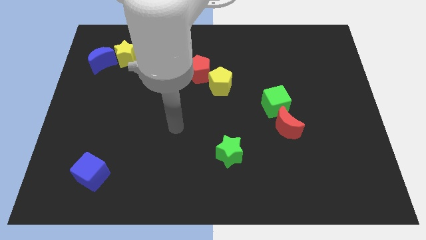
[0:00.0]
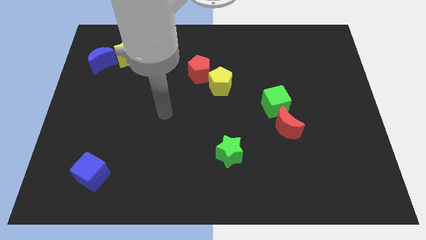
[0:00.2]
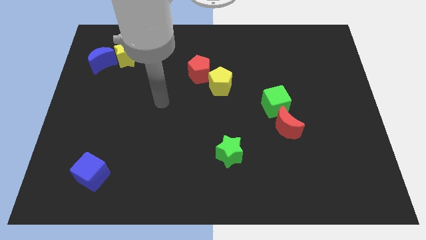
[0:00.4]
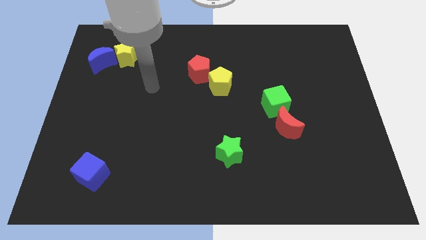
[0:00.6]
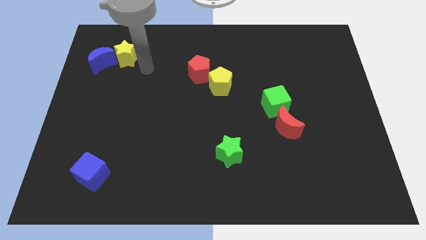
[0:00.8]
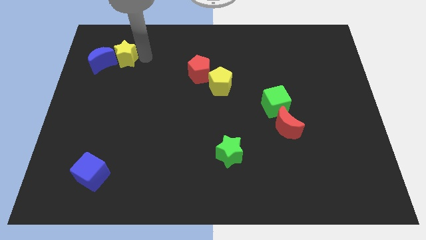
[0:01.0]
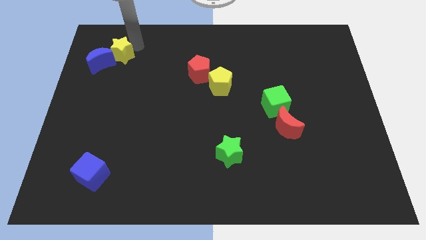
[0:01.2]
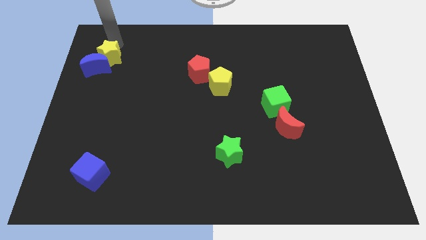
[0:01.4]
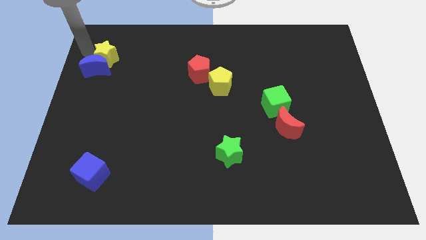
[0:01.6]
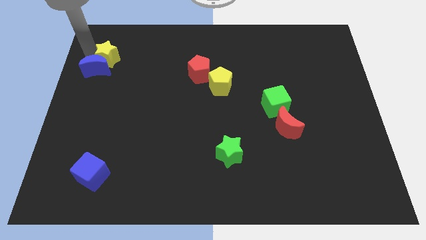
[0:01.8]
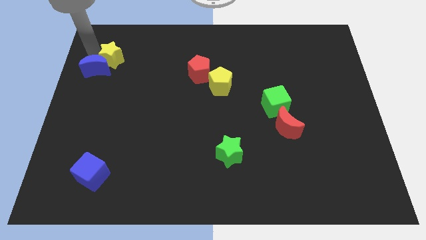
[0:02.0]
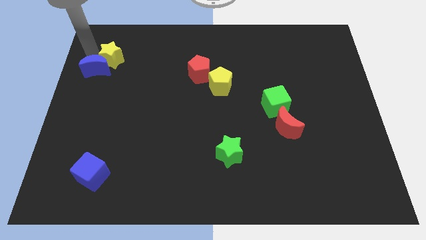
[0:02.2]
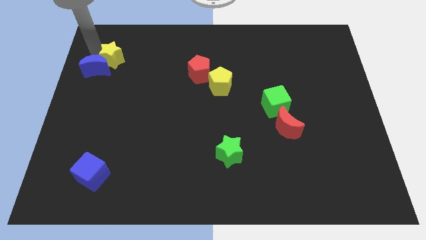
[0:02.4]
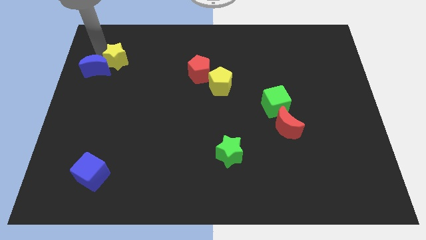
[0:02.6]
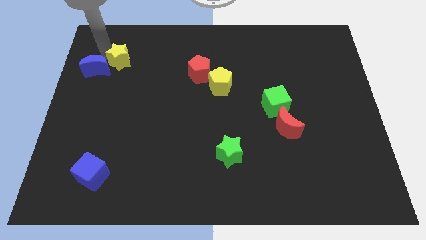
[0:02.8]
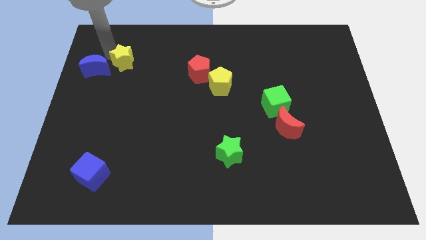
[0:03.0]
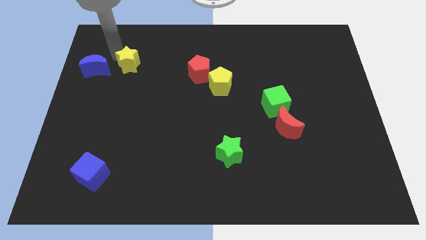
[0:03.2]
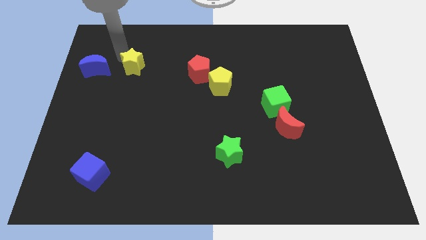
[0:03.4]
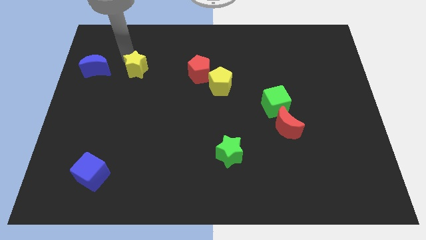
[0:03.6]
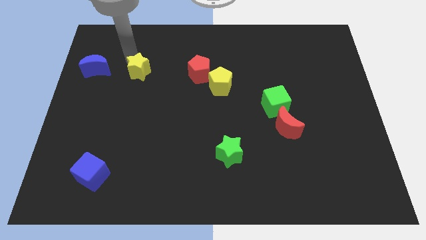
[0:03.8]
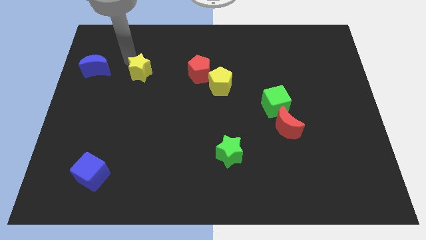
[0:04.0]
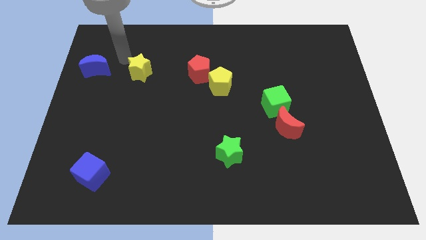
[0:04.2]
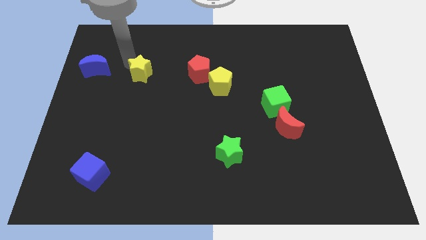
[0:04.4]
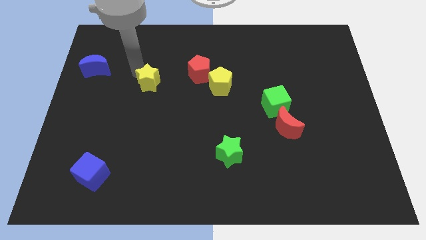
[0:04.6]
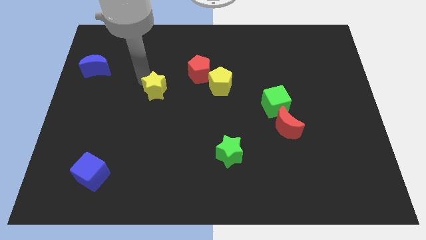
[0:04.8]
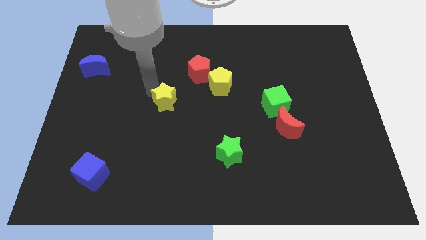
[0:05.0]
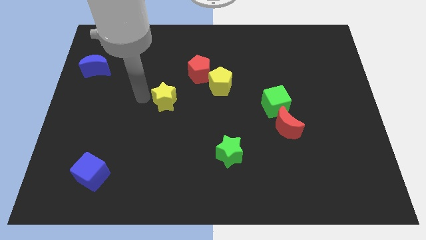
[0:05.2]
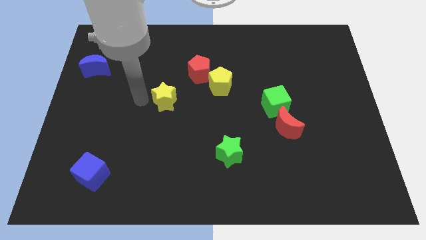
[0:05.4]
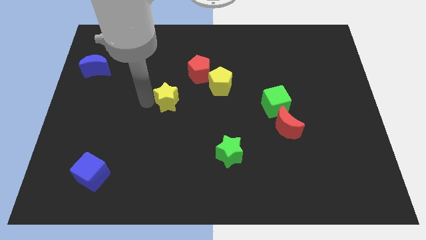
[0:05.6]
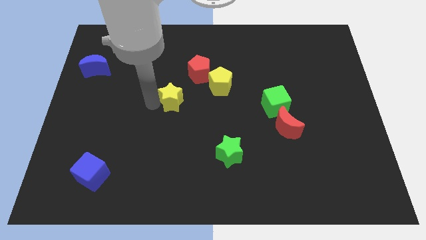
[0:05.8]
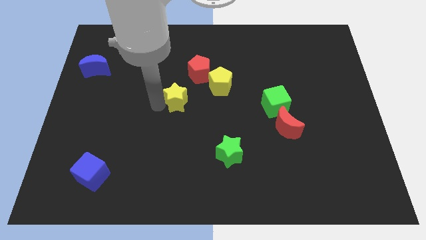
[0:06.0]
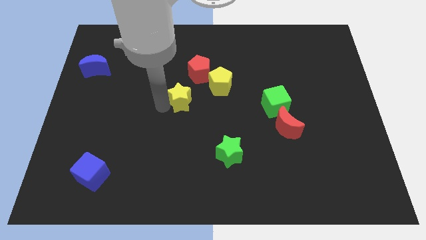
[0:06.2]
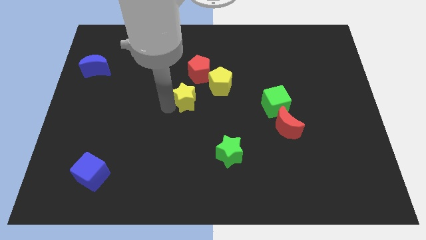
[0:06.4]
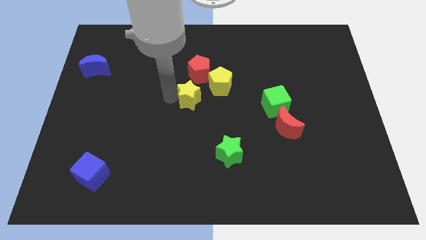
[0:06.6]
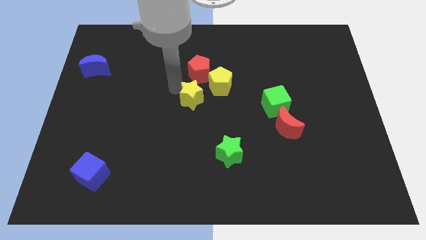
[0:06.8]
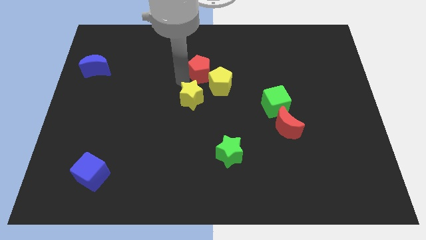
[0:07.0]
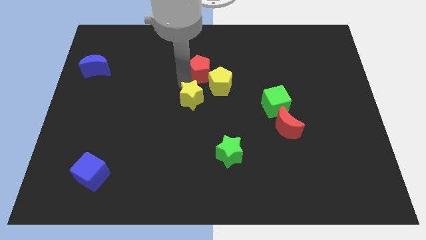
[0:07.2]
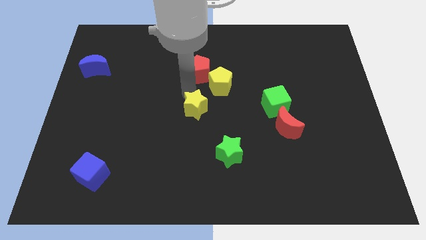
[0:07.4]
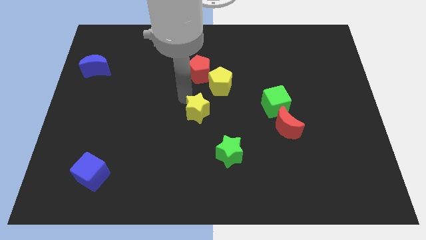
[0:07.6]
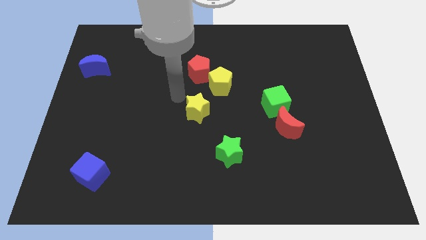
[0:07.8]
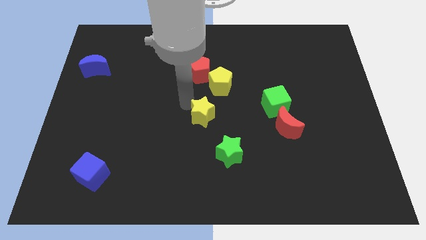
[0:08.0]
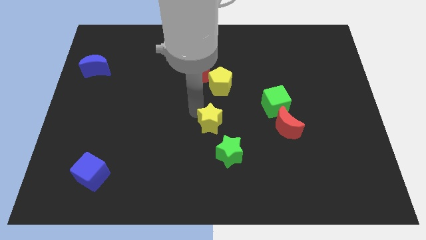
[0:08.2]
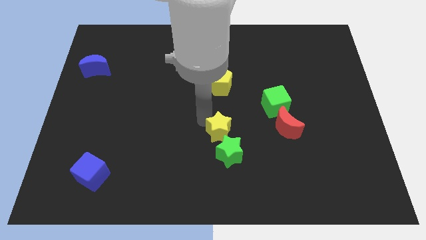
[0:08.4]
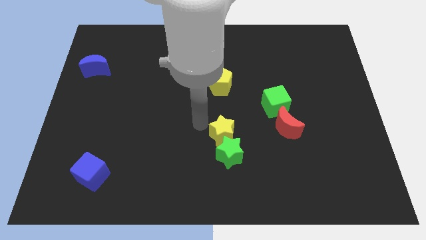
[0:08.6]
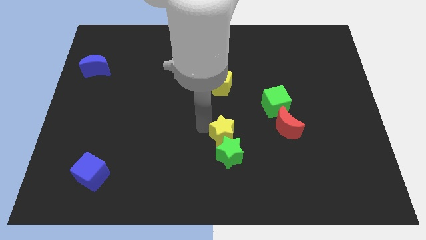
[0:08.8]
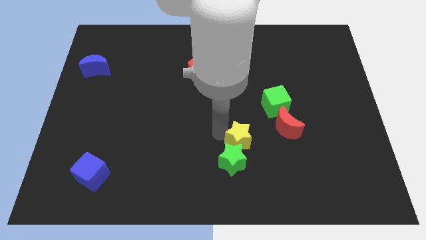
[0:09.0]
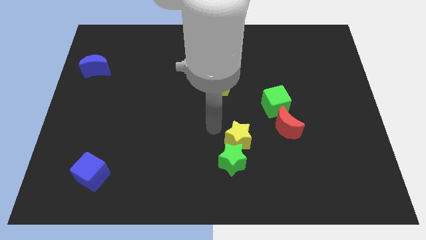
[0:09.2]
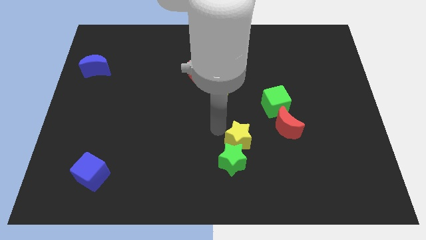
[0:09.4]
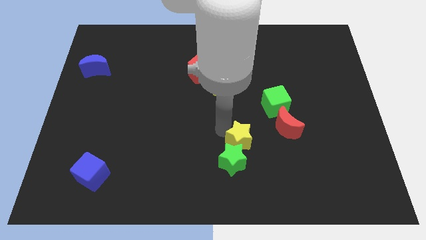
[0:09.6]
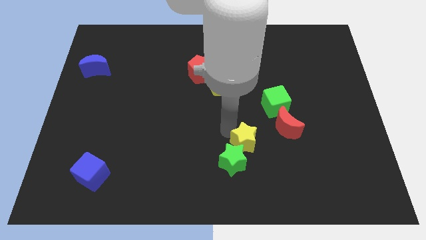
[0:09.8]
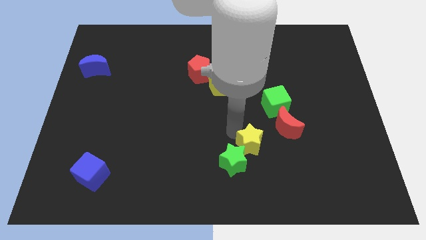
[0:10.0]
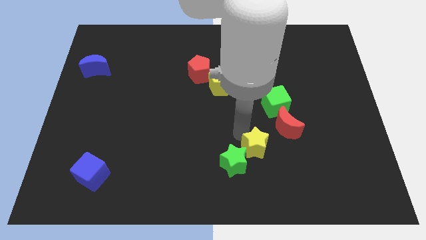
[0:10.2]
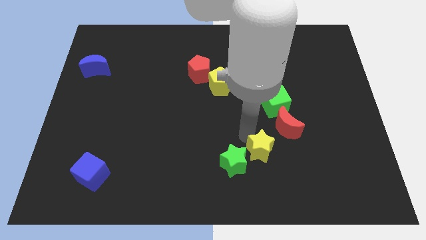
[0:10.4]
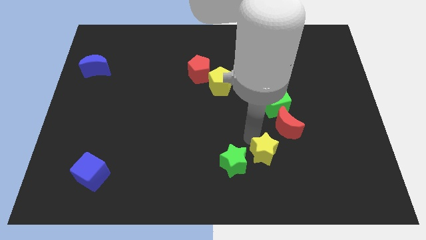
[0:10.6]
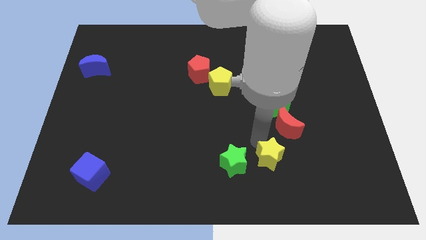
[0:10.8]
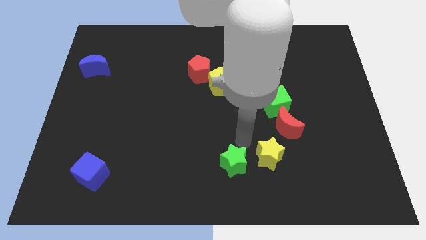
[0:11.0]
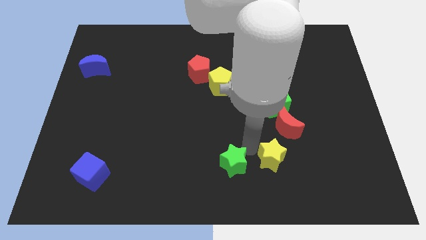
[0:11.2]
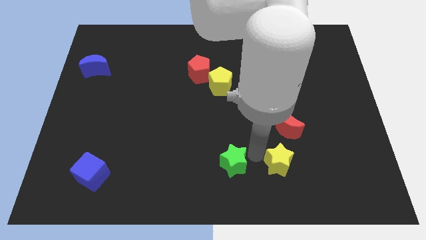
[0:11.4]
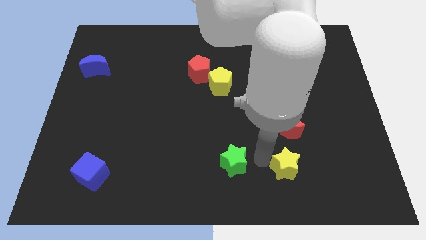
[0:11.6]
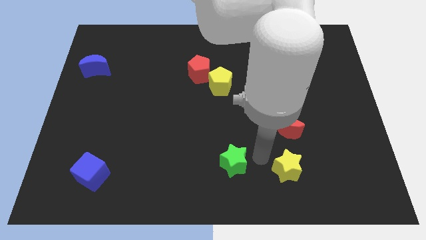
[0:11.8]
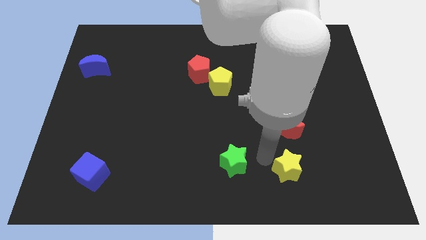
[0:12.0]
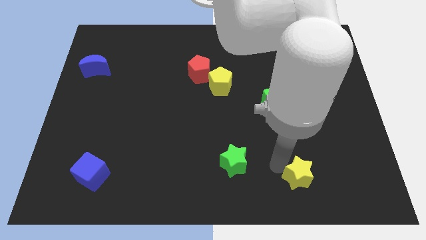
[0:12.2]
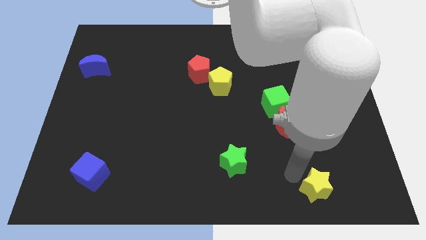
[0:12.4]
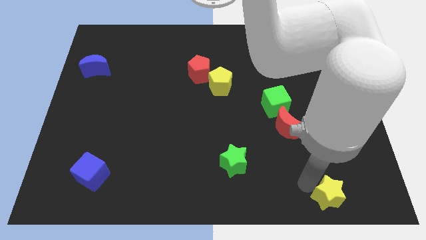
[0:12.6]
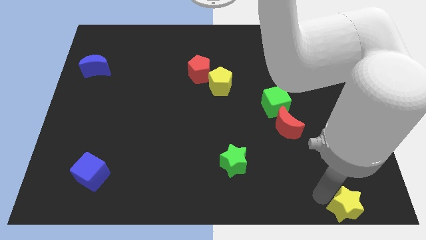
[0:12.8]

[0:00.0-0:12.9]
put the yellow star to the bottom right of the board

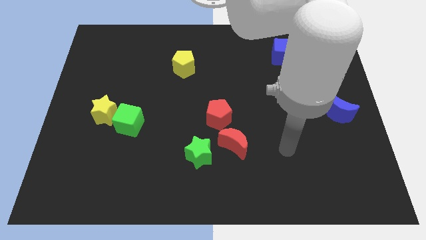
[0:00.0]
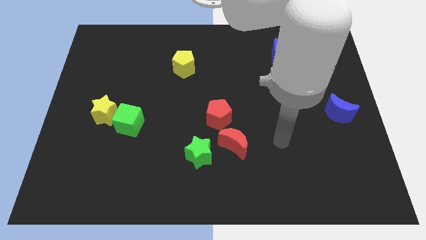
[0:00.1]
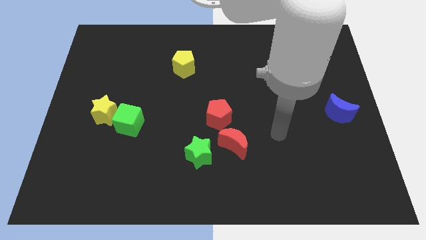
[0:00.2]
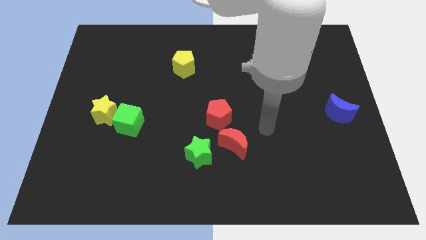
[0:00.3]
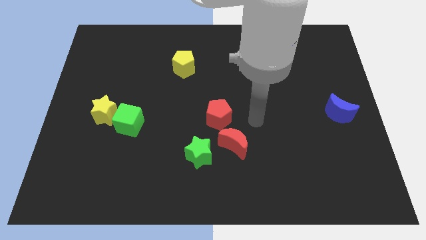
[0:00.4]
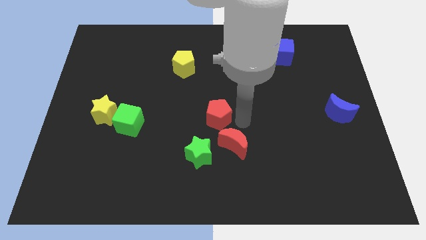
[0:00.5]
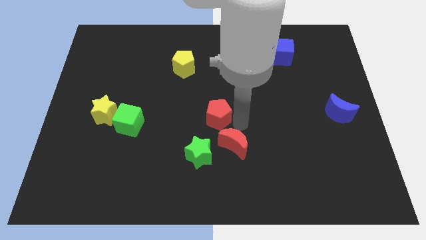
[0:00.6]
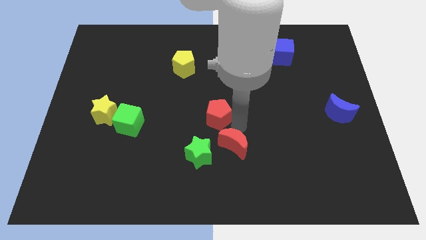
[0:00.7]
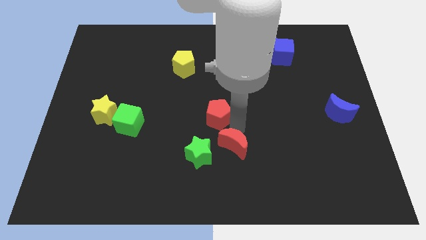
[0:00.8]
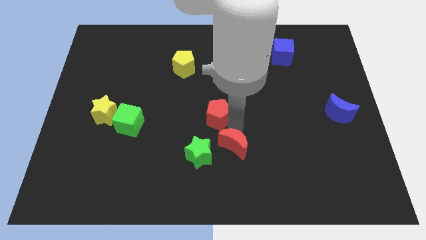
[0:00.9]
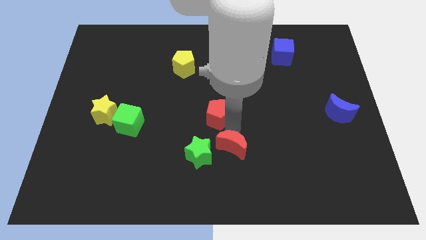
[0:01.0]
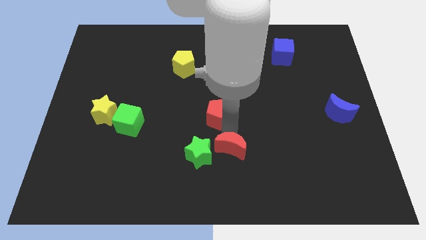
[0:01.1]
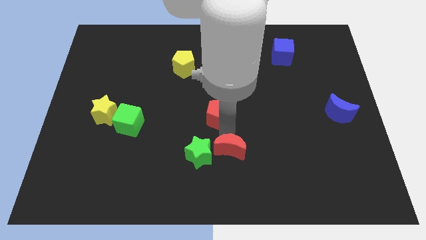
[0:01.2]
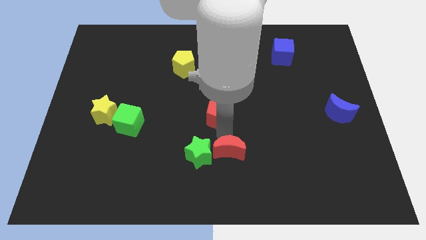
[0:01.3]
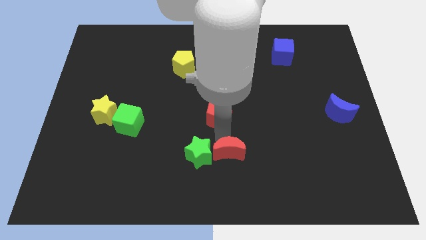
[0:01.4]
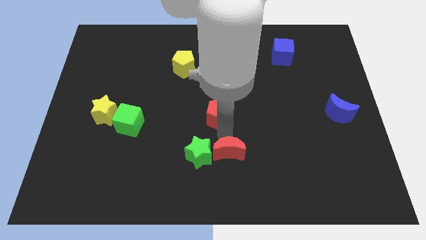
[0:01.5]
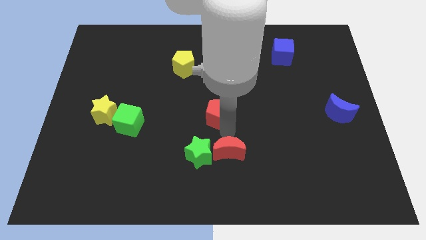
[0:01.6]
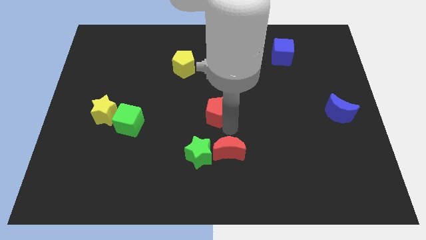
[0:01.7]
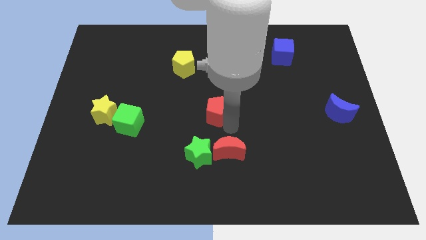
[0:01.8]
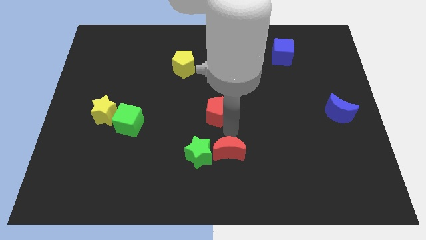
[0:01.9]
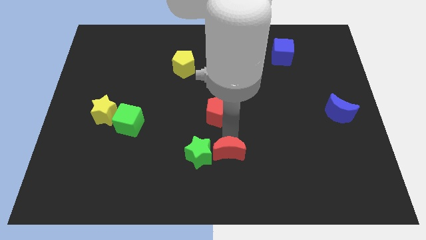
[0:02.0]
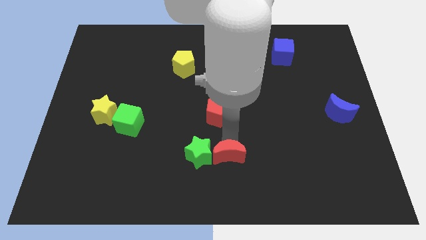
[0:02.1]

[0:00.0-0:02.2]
slide the red moon to the bottom
